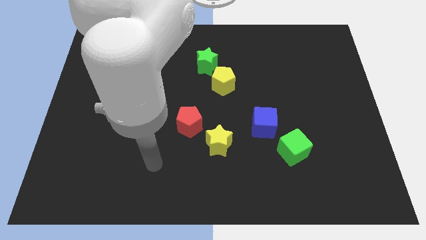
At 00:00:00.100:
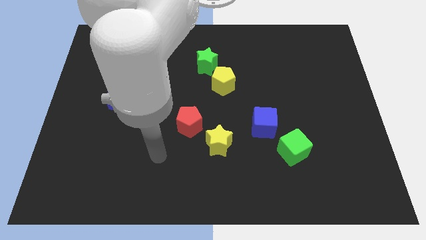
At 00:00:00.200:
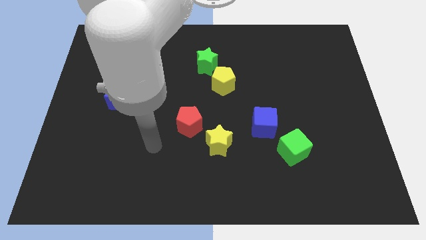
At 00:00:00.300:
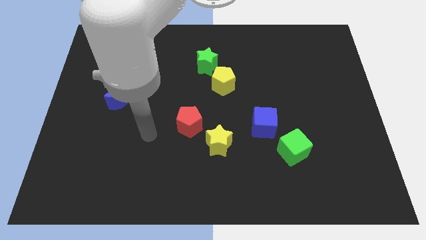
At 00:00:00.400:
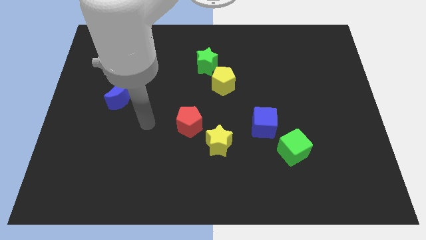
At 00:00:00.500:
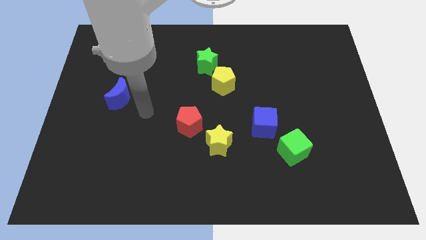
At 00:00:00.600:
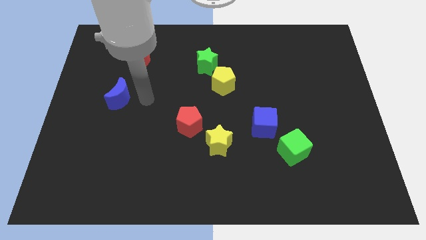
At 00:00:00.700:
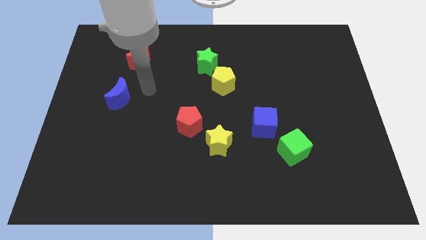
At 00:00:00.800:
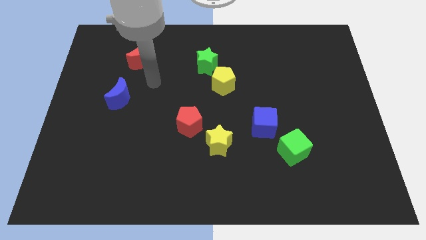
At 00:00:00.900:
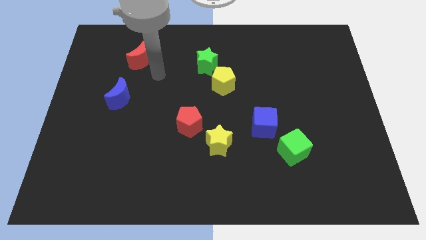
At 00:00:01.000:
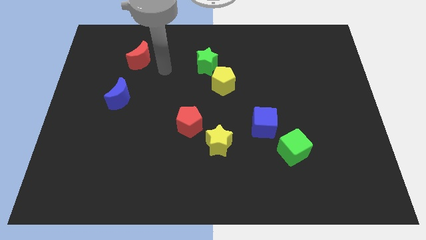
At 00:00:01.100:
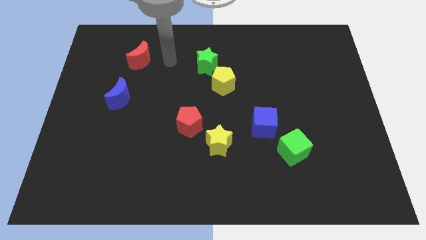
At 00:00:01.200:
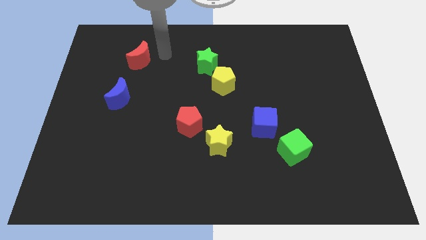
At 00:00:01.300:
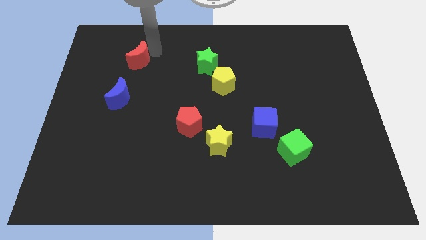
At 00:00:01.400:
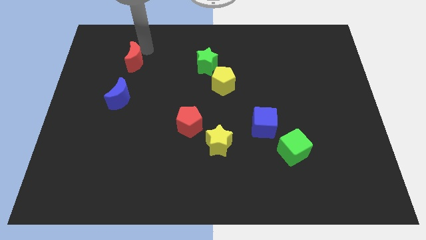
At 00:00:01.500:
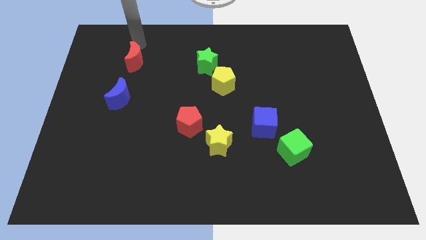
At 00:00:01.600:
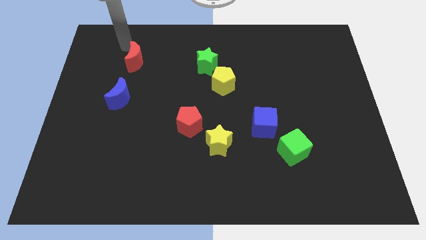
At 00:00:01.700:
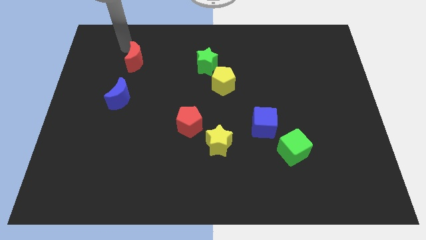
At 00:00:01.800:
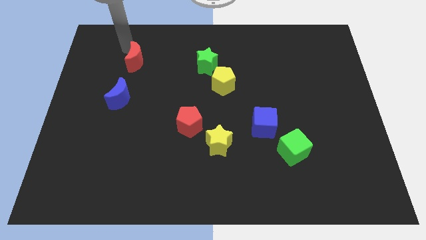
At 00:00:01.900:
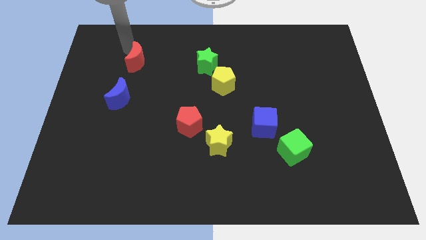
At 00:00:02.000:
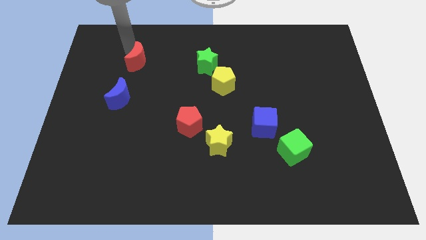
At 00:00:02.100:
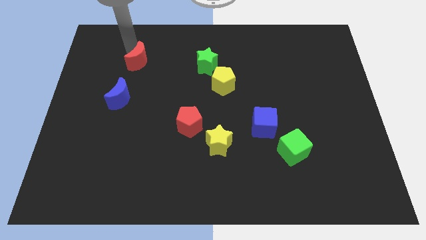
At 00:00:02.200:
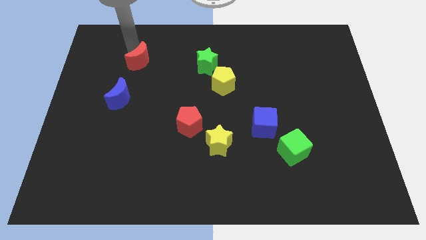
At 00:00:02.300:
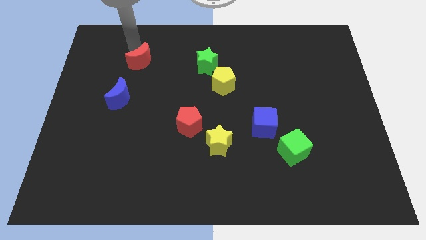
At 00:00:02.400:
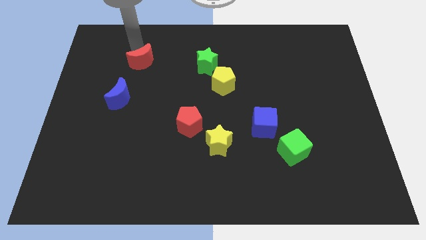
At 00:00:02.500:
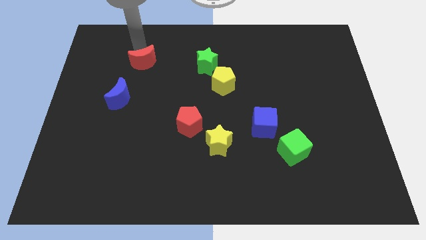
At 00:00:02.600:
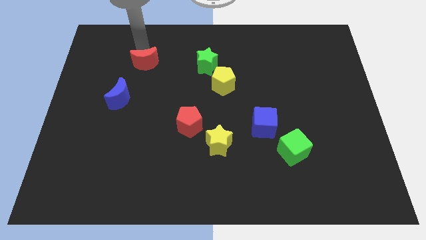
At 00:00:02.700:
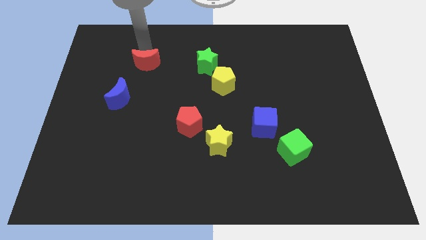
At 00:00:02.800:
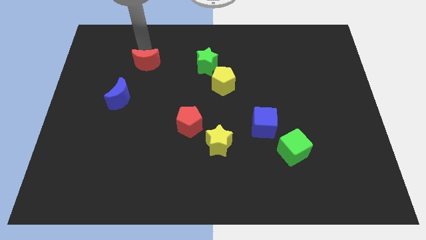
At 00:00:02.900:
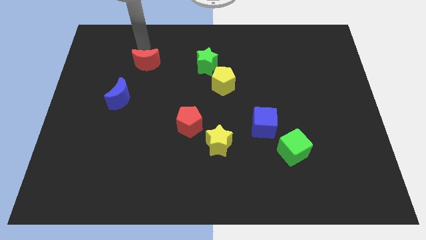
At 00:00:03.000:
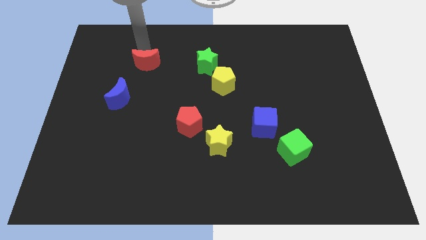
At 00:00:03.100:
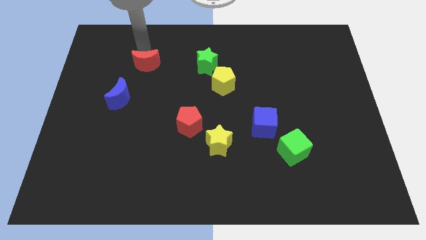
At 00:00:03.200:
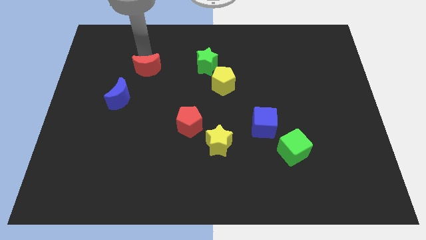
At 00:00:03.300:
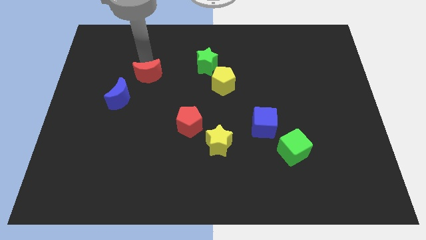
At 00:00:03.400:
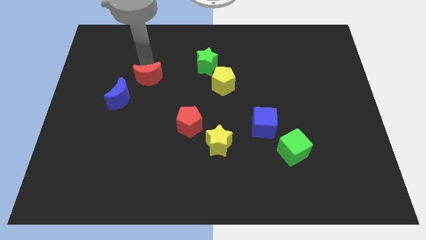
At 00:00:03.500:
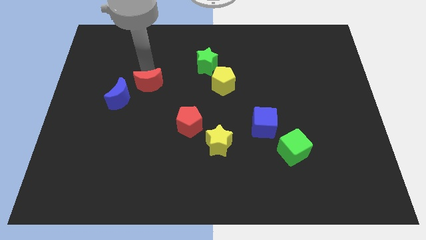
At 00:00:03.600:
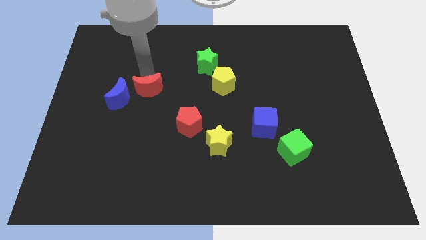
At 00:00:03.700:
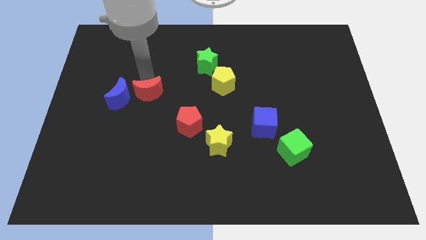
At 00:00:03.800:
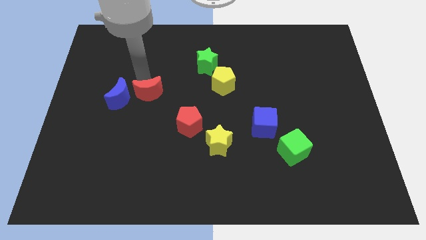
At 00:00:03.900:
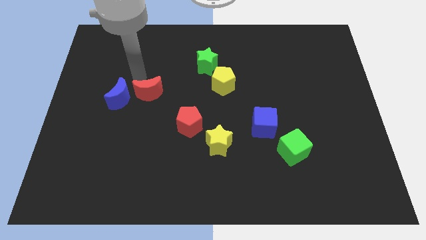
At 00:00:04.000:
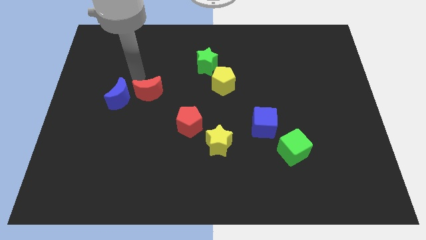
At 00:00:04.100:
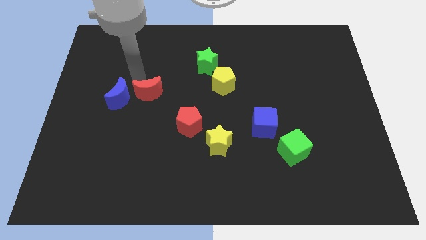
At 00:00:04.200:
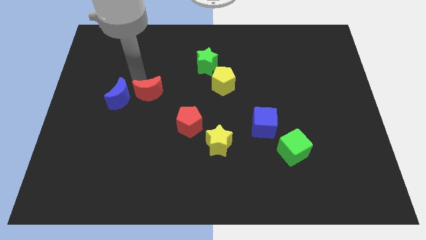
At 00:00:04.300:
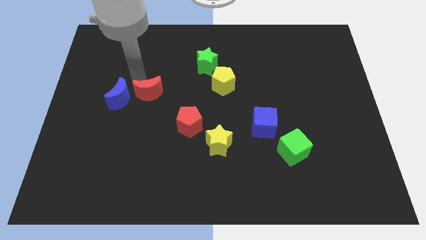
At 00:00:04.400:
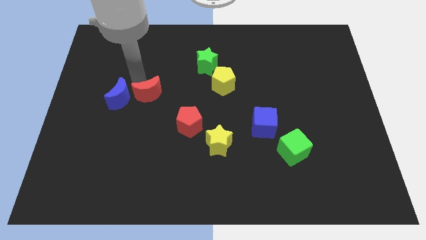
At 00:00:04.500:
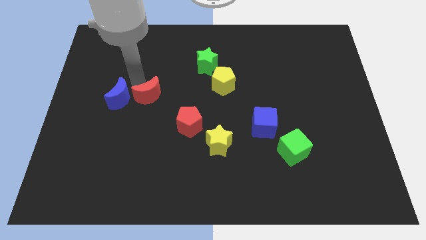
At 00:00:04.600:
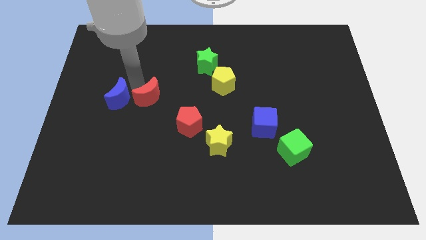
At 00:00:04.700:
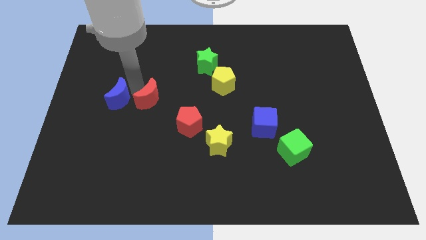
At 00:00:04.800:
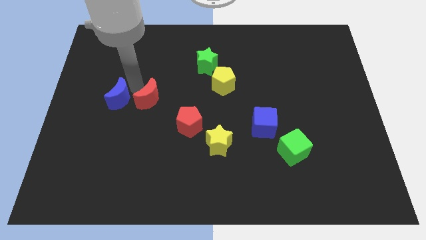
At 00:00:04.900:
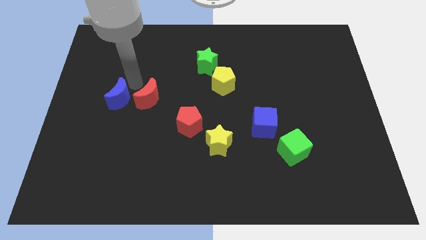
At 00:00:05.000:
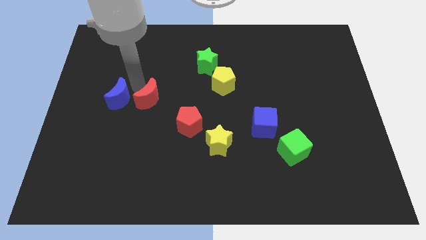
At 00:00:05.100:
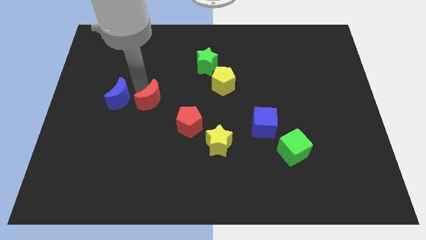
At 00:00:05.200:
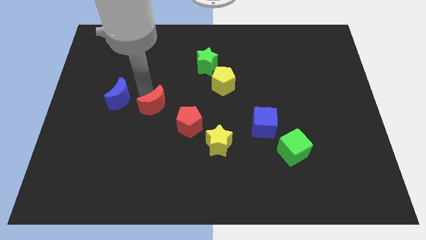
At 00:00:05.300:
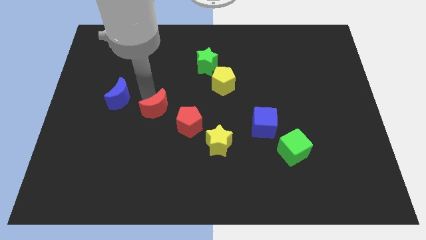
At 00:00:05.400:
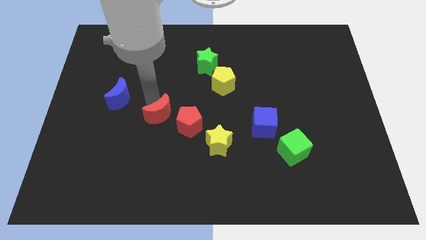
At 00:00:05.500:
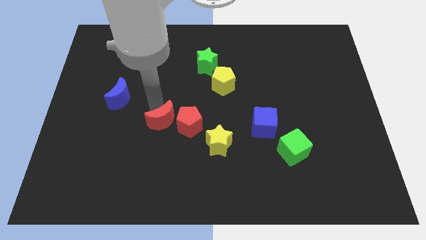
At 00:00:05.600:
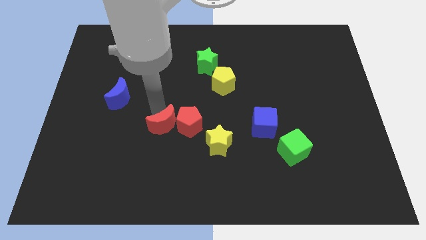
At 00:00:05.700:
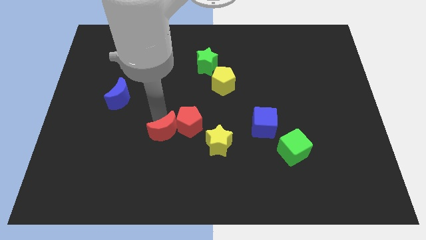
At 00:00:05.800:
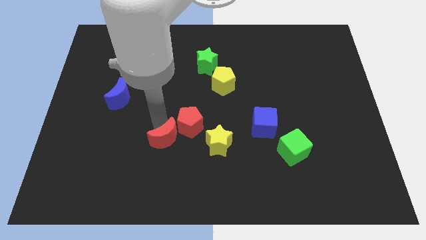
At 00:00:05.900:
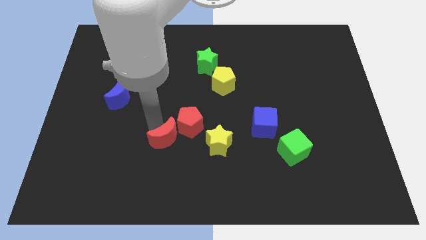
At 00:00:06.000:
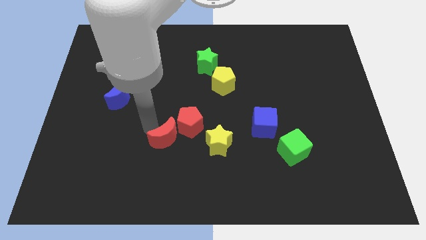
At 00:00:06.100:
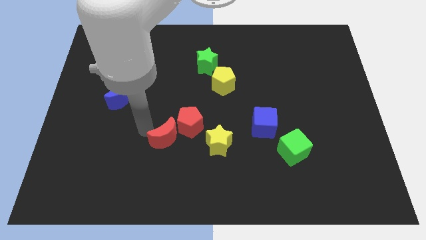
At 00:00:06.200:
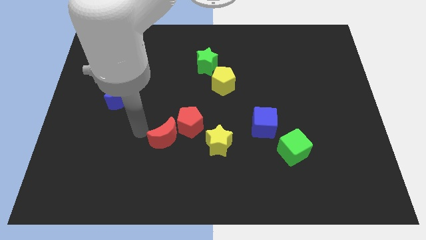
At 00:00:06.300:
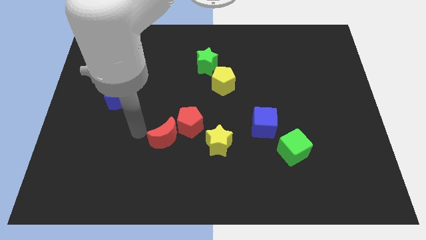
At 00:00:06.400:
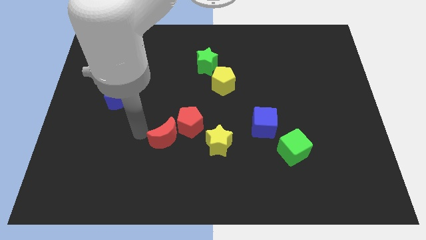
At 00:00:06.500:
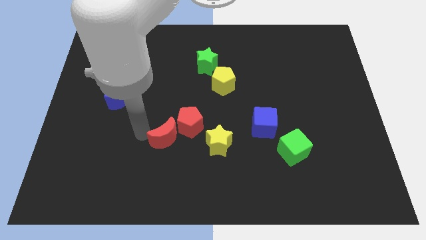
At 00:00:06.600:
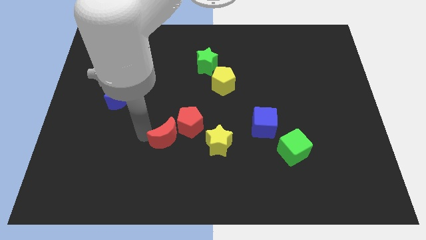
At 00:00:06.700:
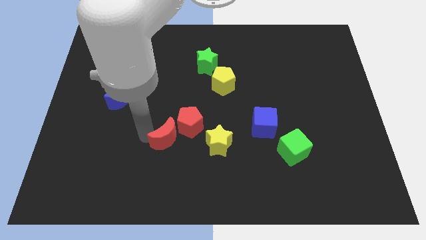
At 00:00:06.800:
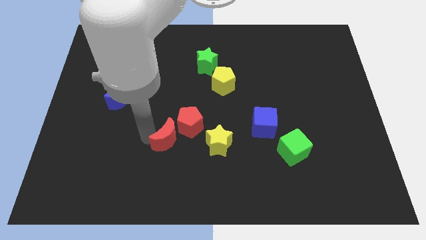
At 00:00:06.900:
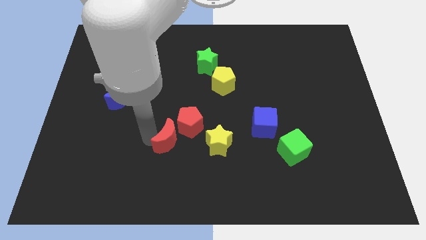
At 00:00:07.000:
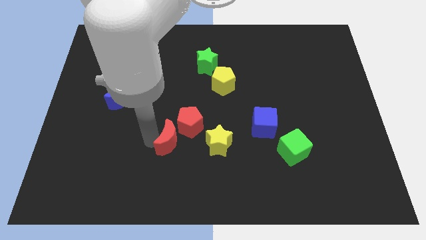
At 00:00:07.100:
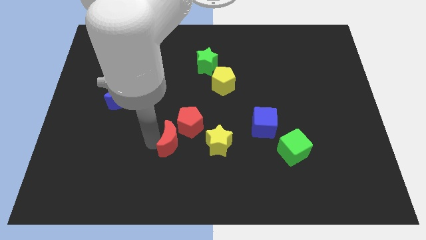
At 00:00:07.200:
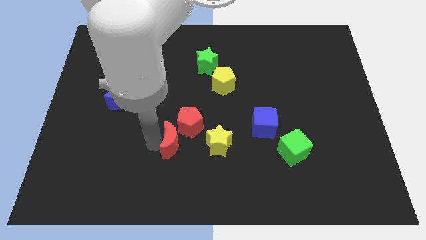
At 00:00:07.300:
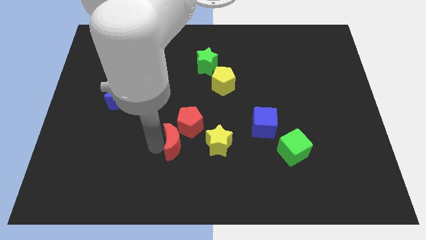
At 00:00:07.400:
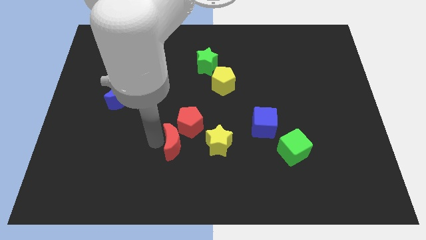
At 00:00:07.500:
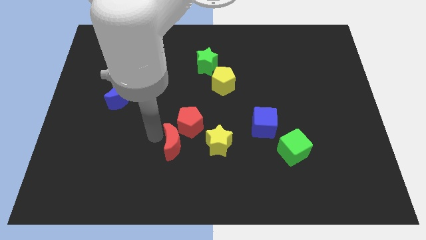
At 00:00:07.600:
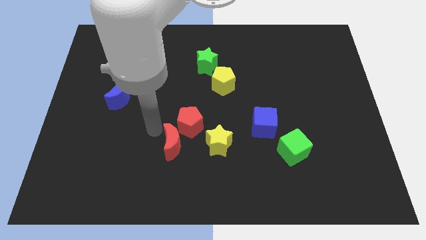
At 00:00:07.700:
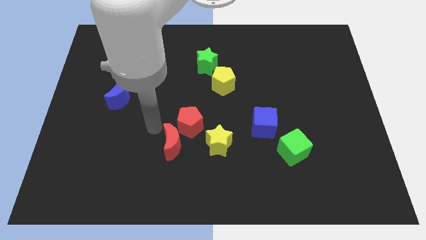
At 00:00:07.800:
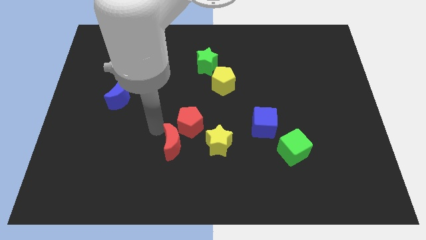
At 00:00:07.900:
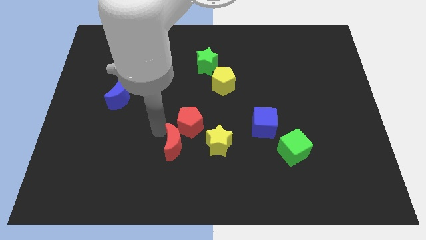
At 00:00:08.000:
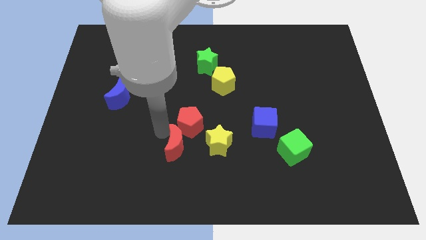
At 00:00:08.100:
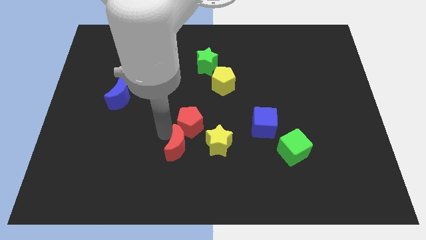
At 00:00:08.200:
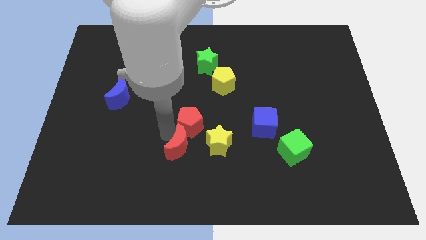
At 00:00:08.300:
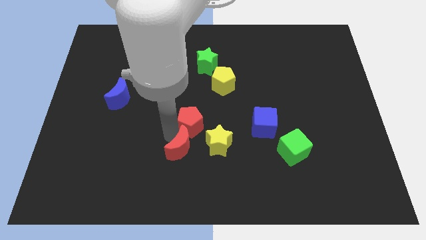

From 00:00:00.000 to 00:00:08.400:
push the red moon to the bottom left side of the yellow star
